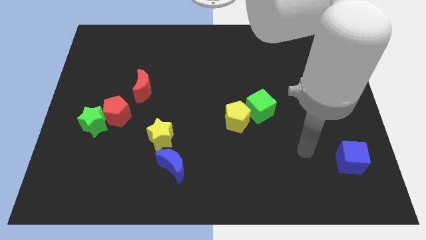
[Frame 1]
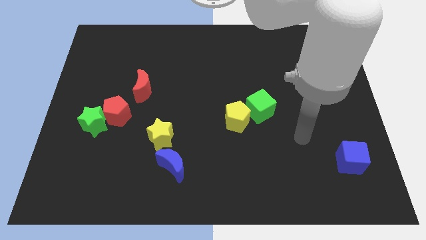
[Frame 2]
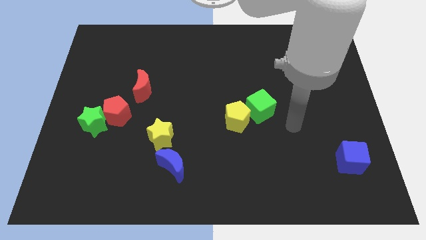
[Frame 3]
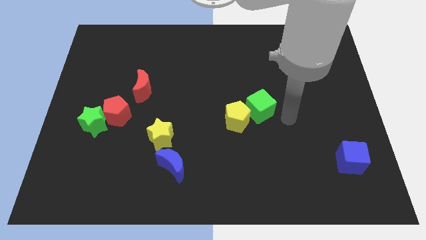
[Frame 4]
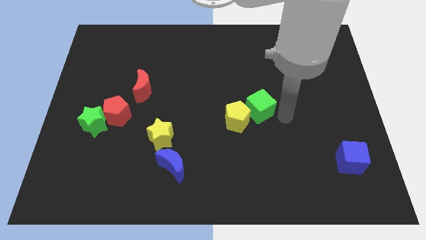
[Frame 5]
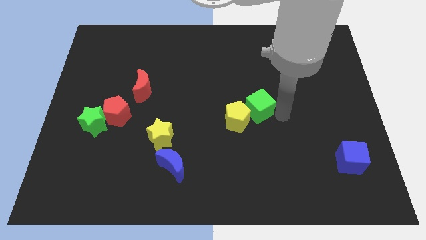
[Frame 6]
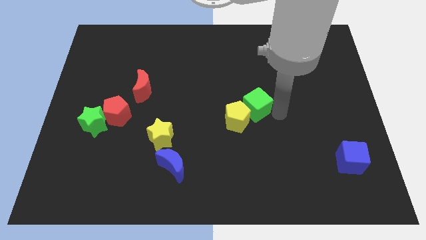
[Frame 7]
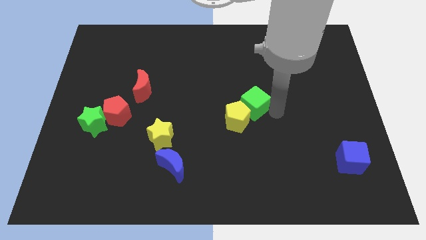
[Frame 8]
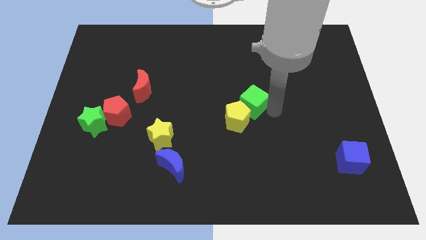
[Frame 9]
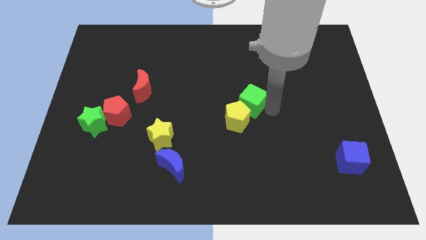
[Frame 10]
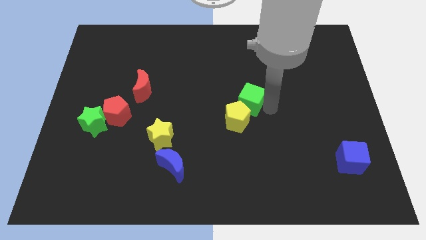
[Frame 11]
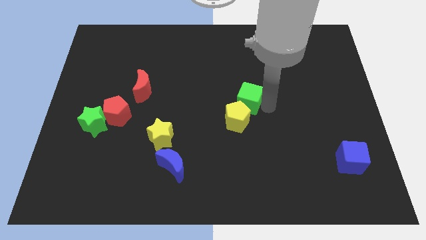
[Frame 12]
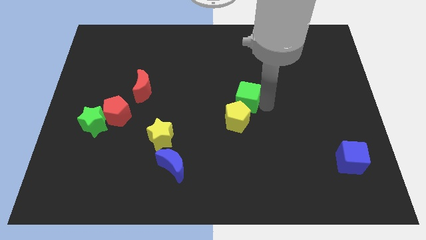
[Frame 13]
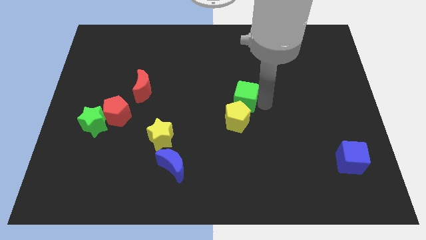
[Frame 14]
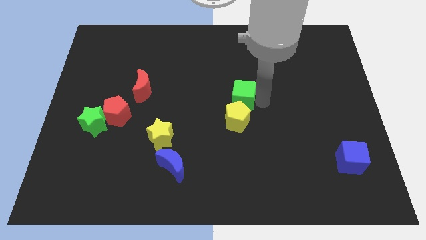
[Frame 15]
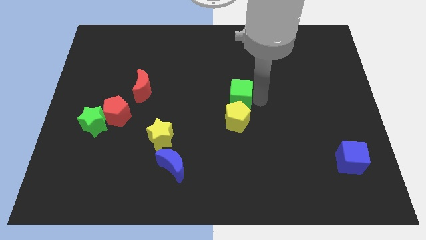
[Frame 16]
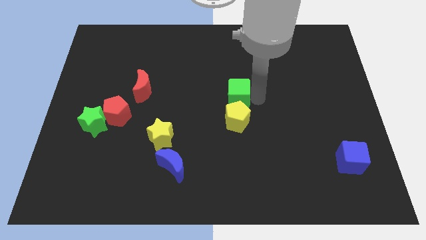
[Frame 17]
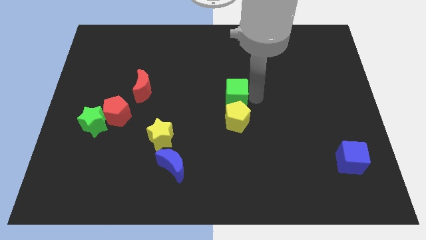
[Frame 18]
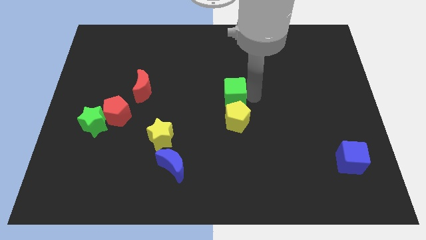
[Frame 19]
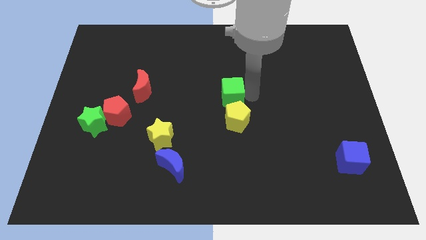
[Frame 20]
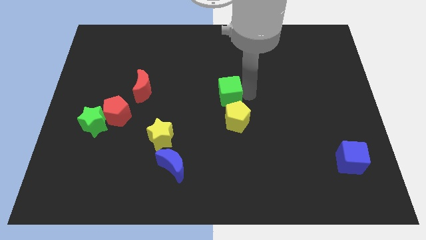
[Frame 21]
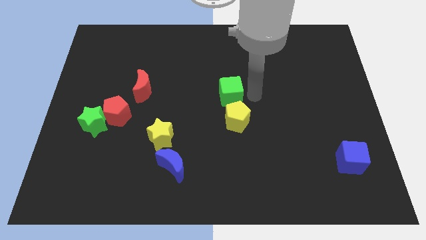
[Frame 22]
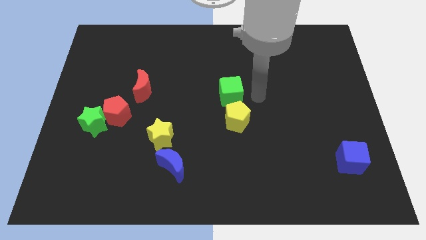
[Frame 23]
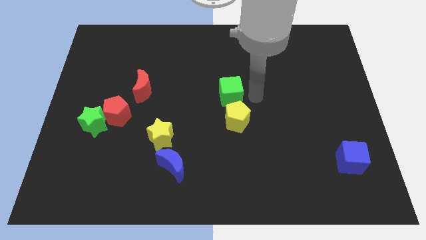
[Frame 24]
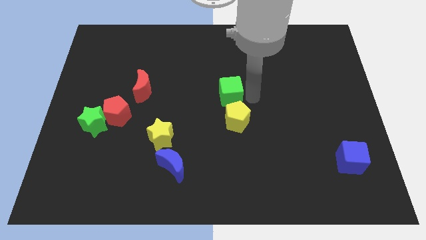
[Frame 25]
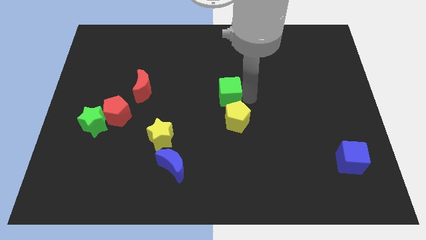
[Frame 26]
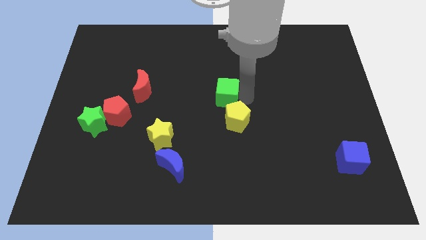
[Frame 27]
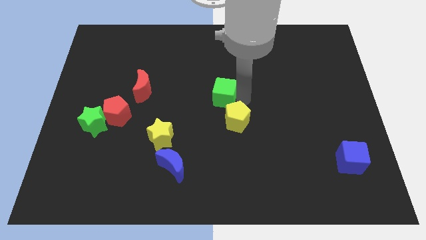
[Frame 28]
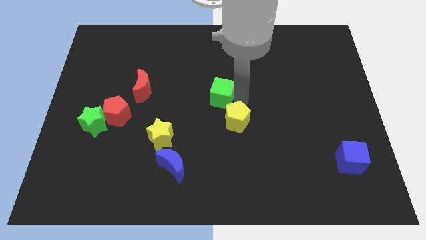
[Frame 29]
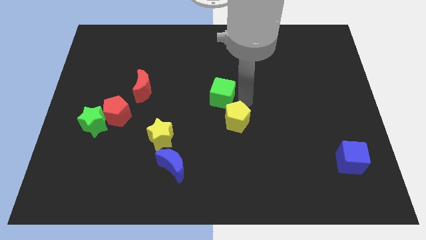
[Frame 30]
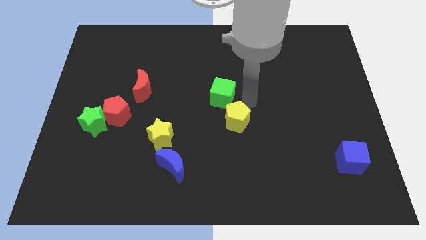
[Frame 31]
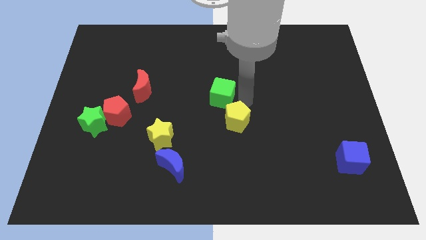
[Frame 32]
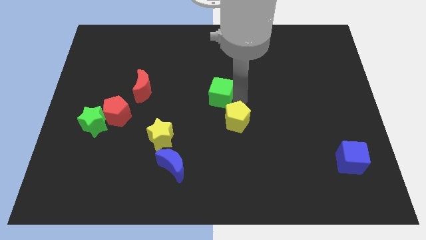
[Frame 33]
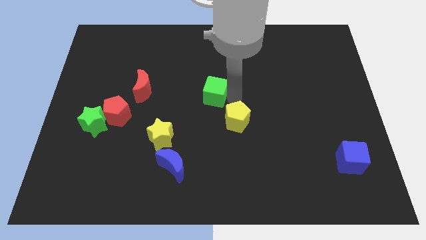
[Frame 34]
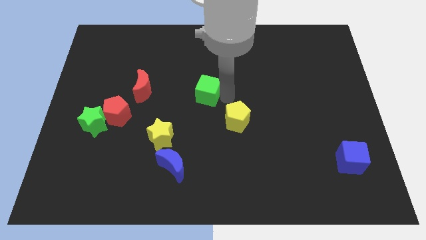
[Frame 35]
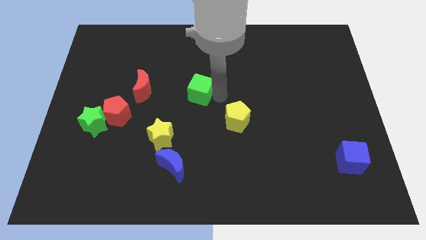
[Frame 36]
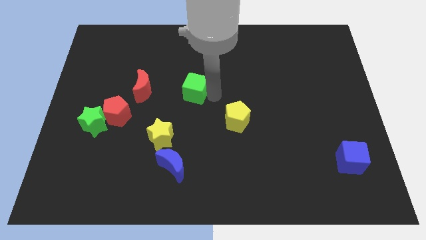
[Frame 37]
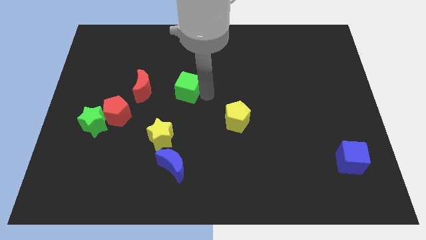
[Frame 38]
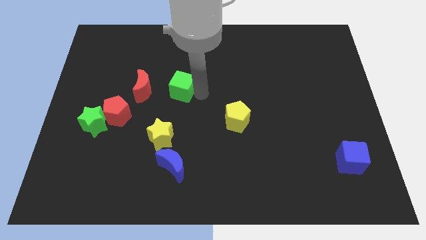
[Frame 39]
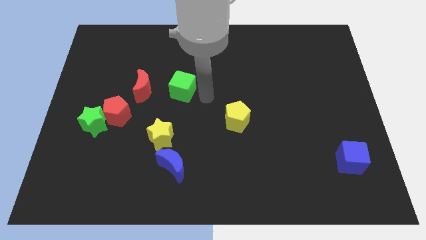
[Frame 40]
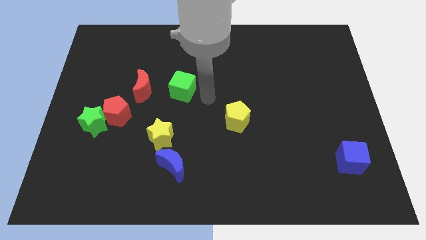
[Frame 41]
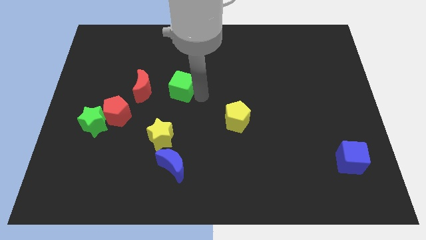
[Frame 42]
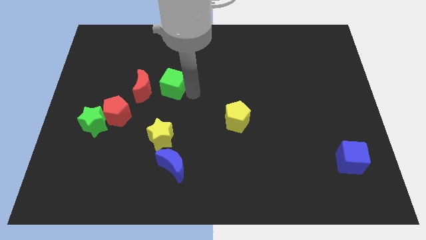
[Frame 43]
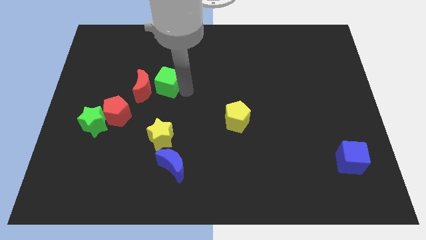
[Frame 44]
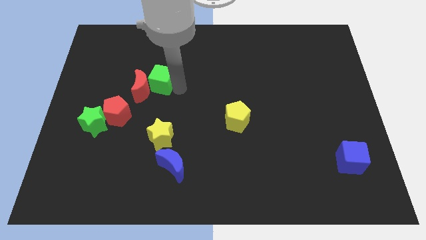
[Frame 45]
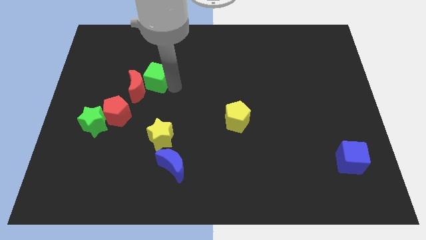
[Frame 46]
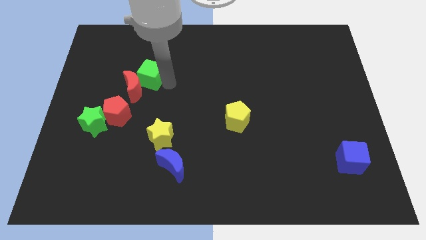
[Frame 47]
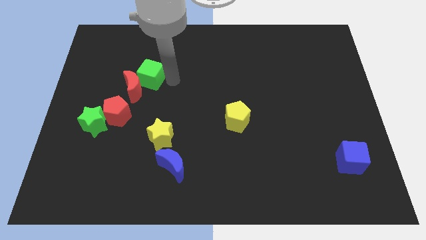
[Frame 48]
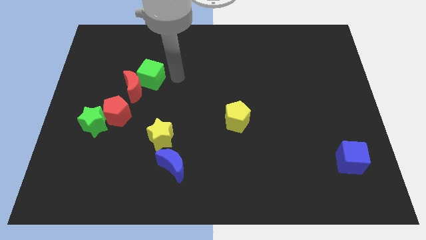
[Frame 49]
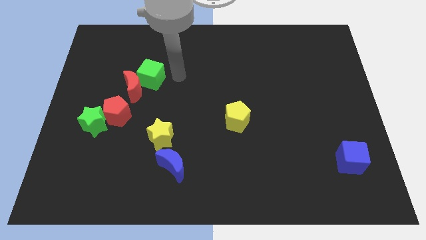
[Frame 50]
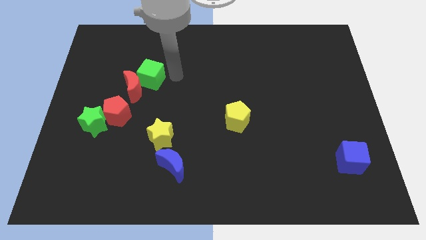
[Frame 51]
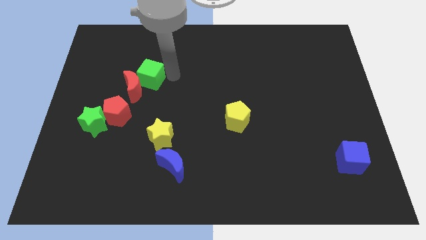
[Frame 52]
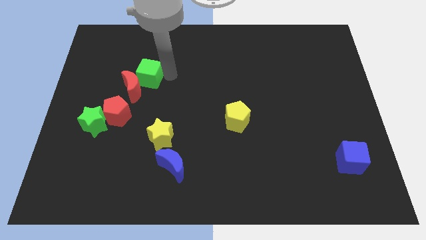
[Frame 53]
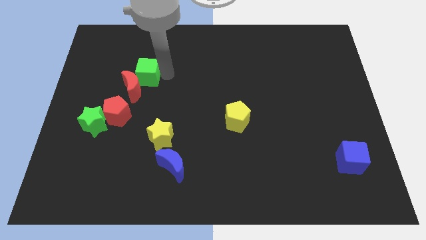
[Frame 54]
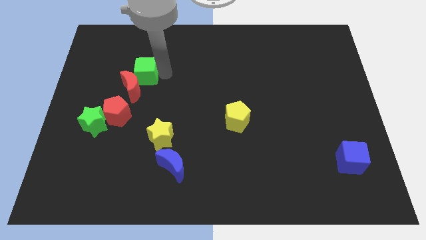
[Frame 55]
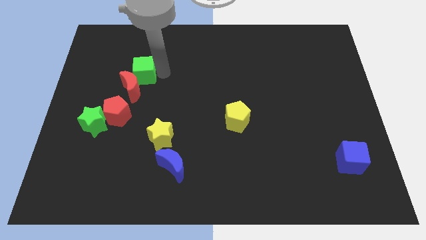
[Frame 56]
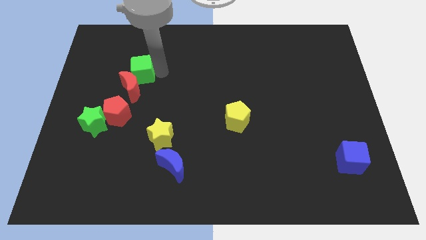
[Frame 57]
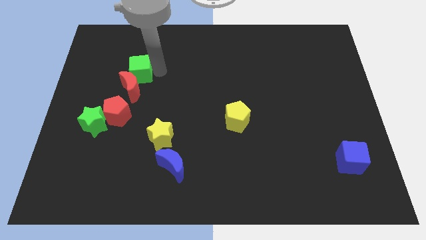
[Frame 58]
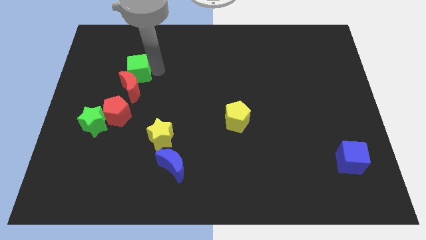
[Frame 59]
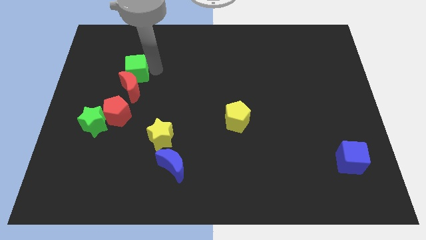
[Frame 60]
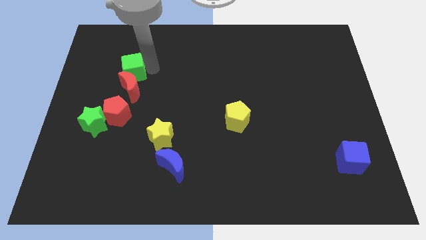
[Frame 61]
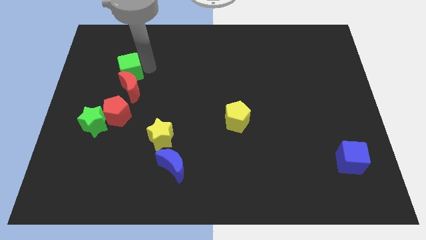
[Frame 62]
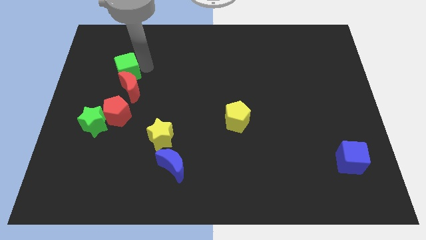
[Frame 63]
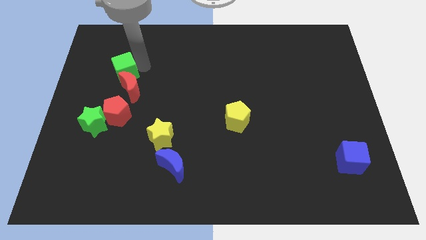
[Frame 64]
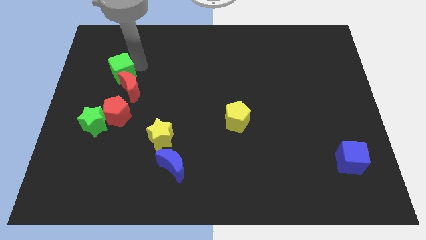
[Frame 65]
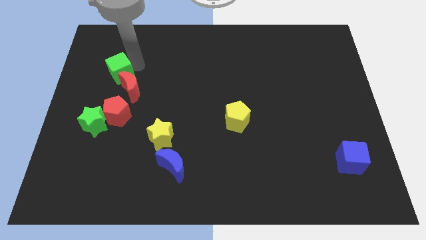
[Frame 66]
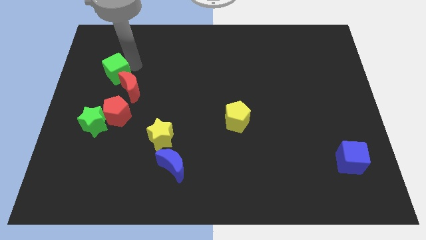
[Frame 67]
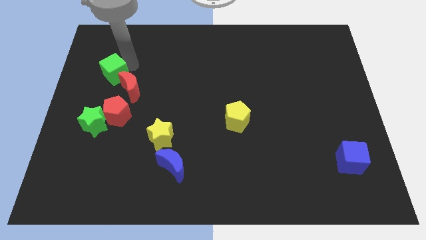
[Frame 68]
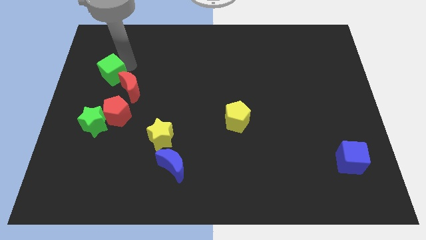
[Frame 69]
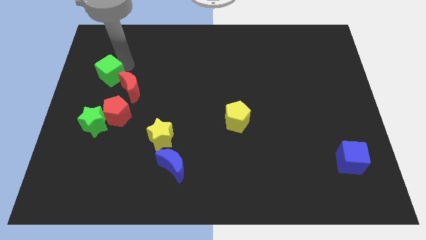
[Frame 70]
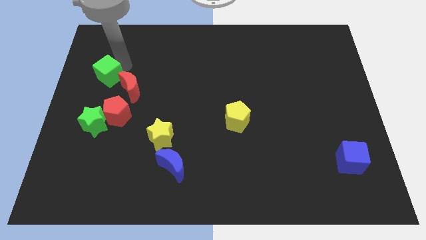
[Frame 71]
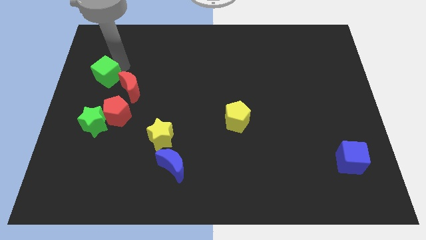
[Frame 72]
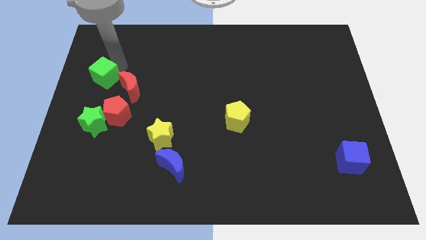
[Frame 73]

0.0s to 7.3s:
push the green cube to the left side of the board
